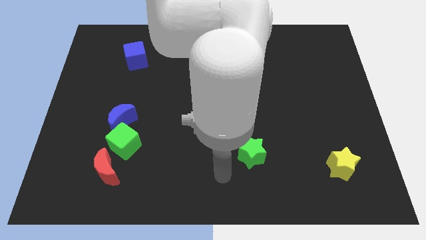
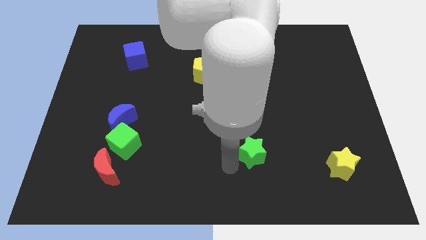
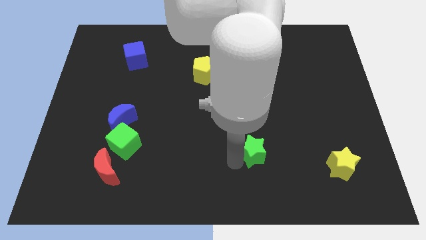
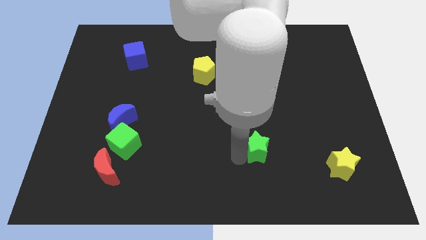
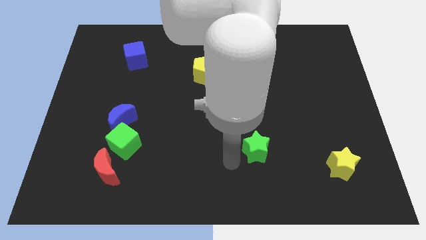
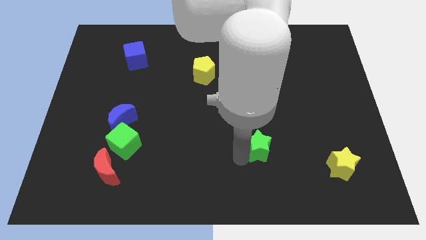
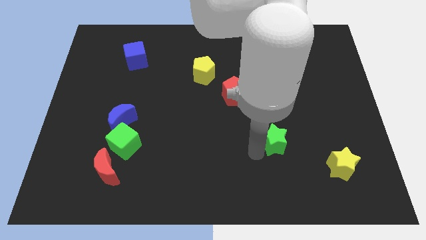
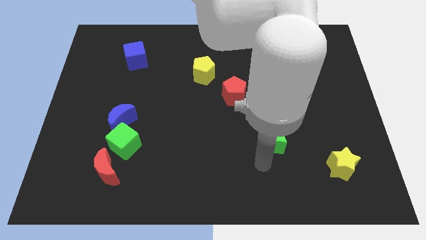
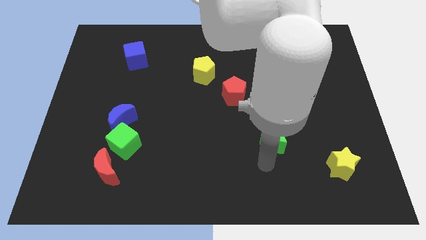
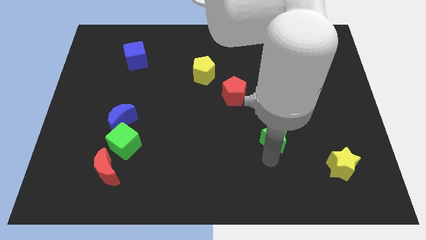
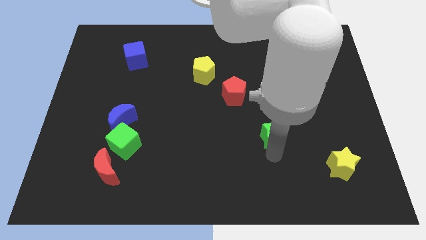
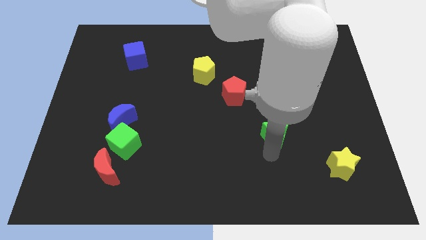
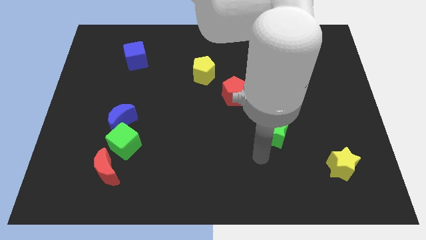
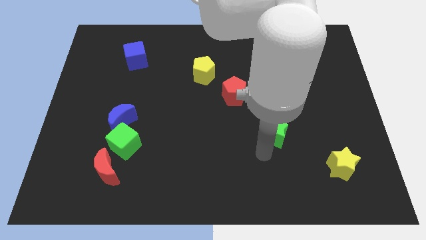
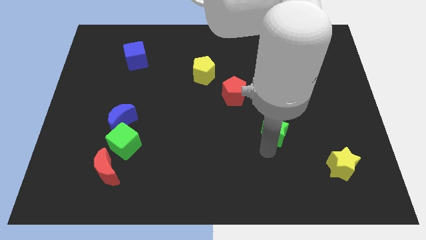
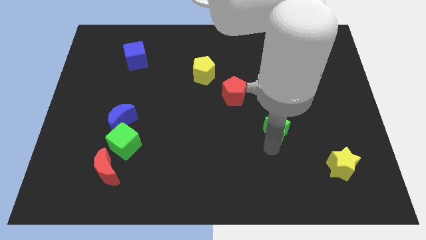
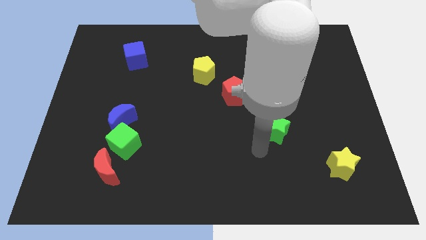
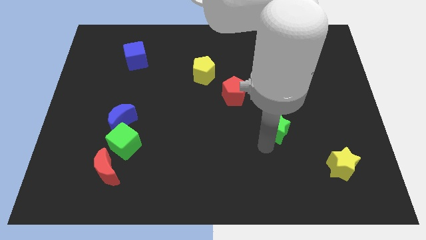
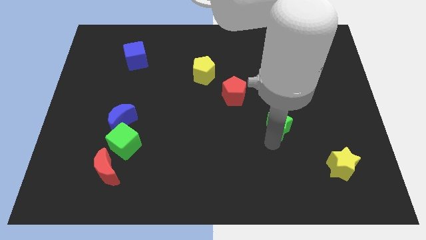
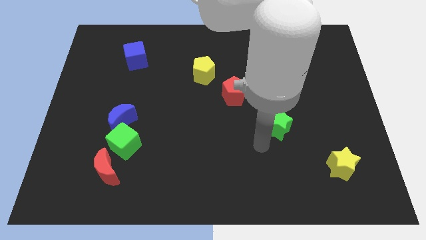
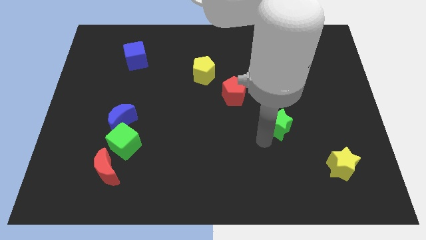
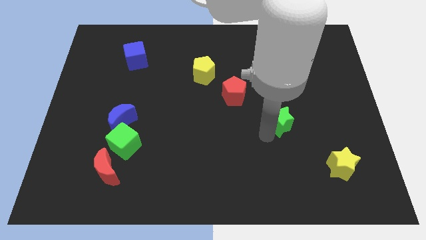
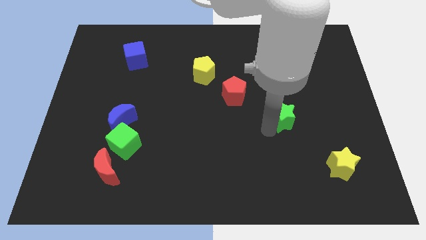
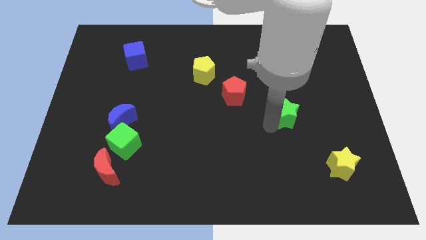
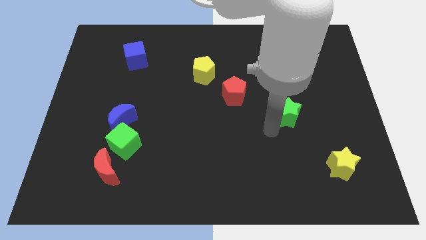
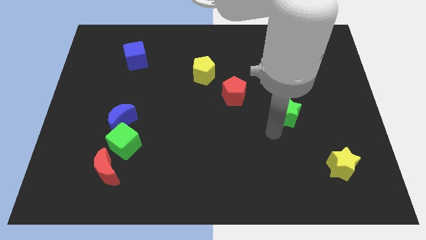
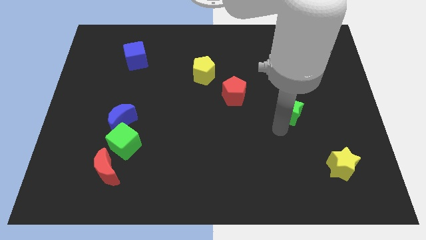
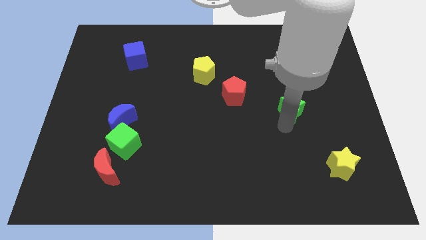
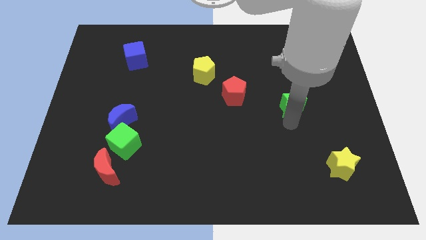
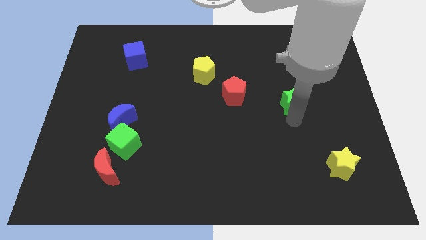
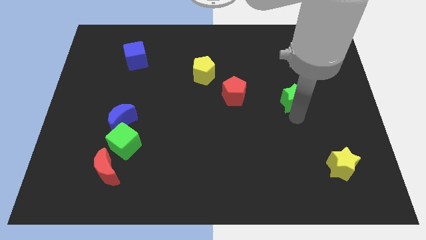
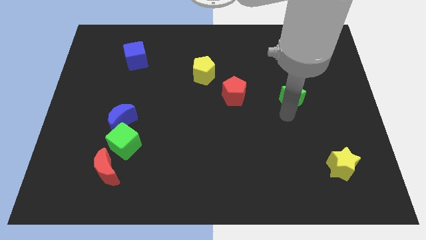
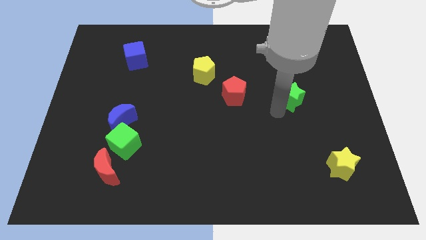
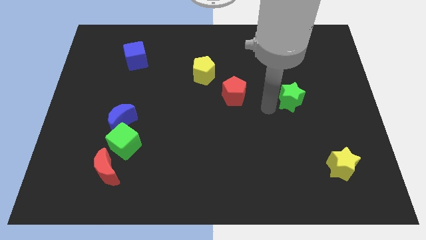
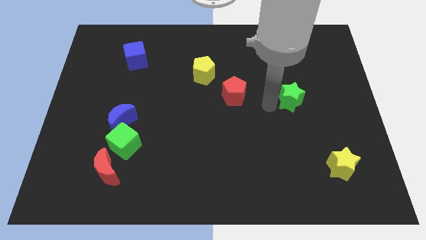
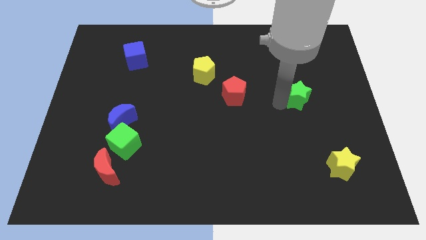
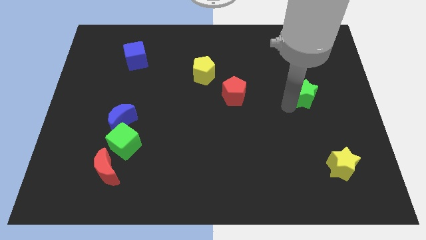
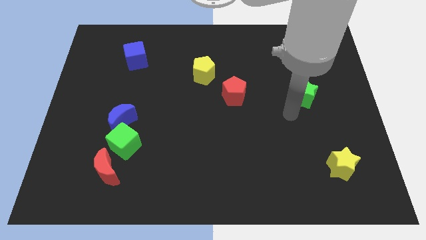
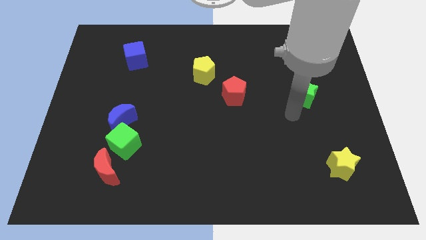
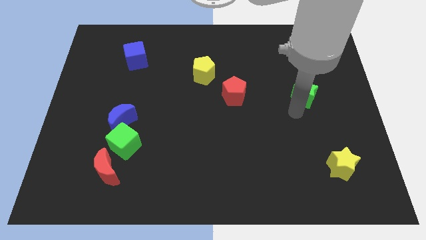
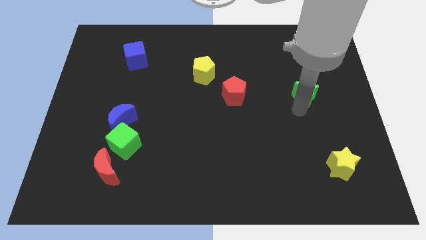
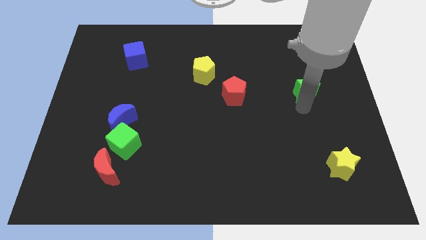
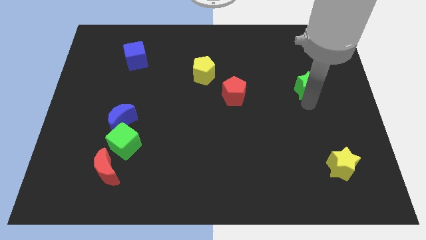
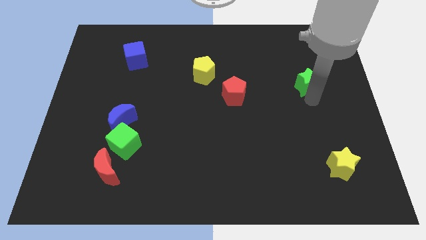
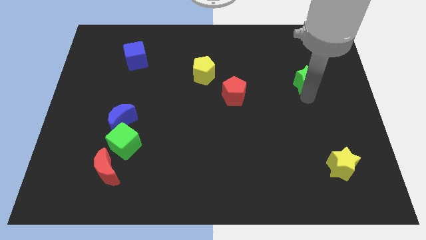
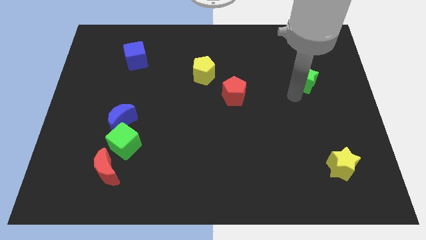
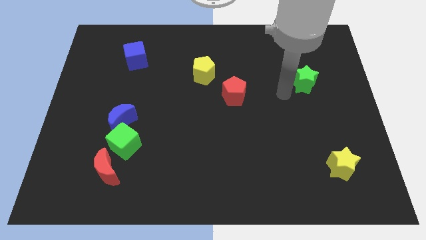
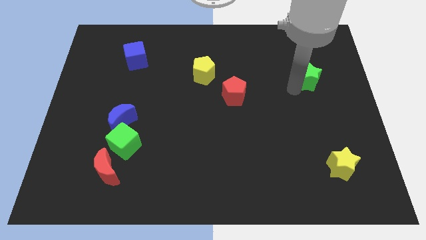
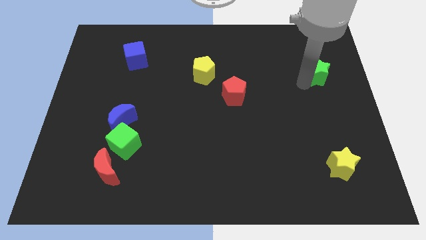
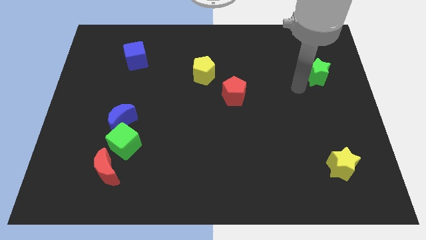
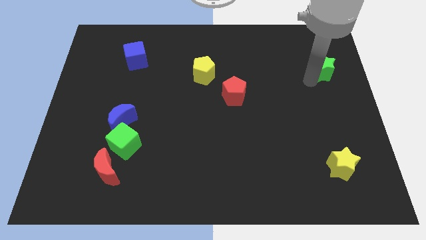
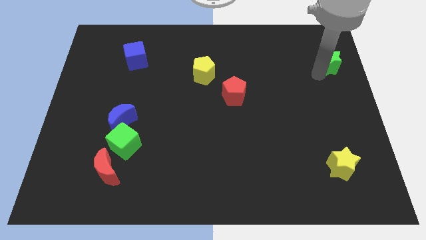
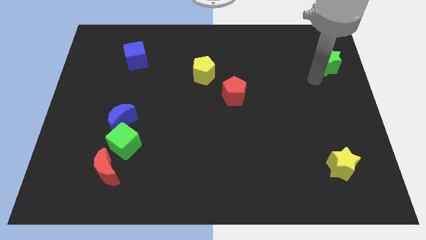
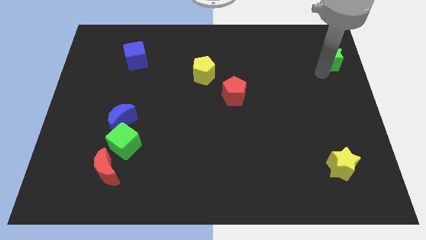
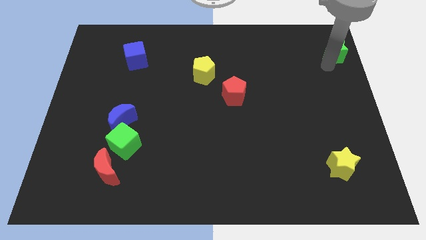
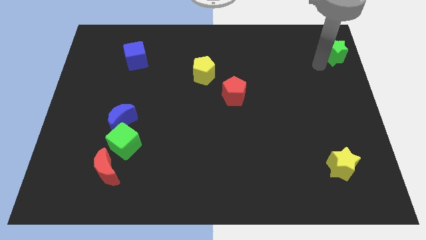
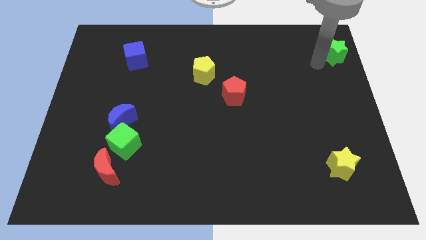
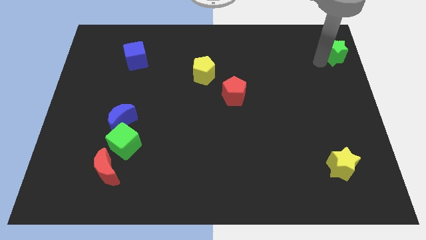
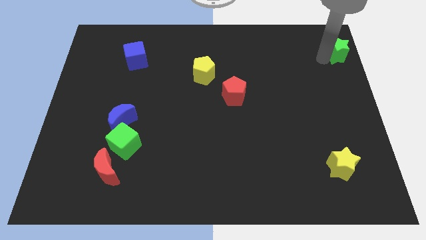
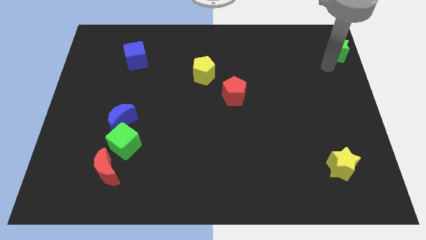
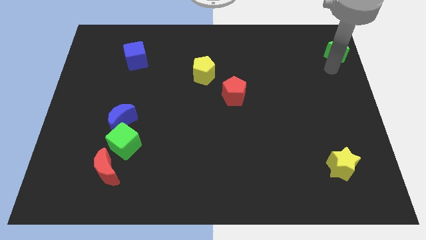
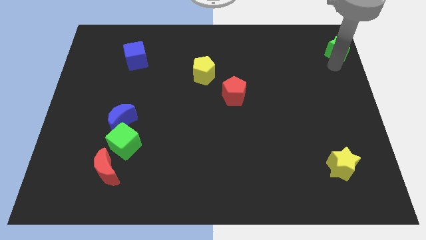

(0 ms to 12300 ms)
push the green star to the top right corner
